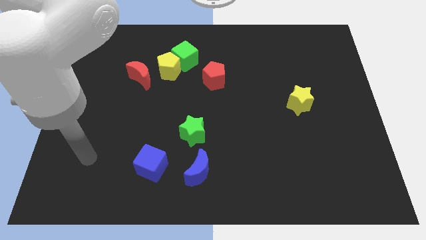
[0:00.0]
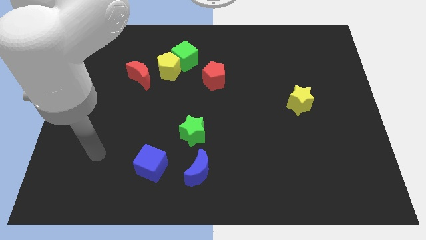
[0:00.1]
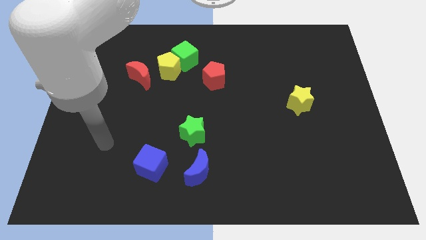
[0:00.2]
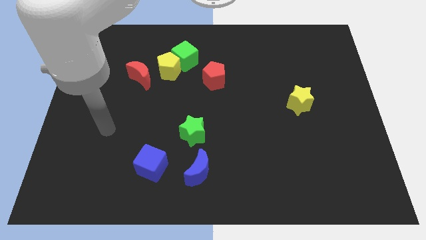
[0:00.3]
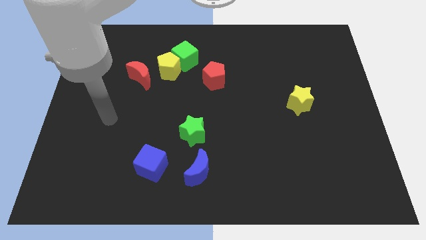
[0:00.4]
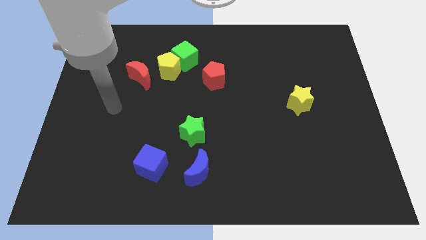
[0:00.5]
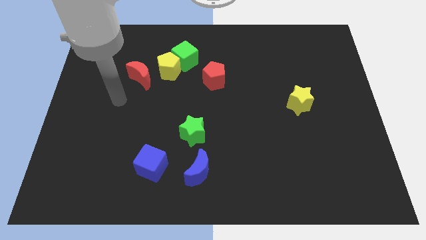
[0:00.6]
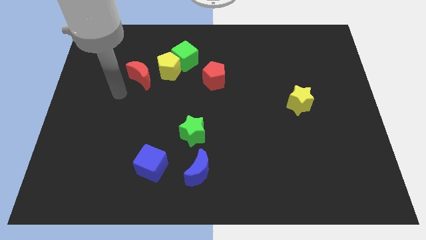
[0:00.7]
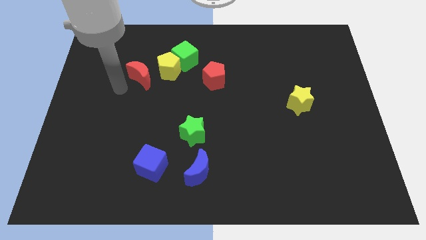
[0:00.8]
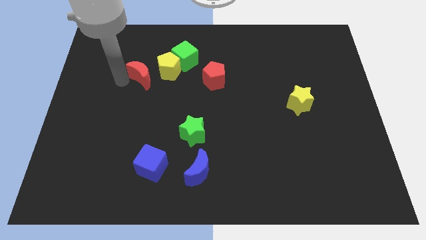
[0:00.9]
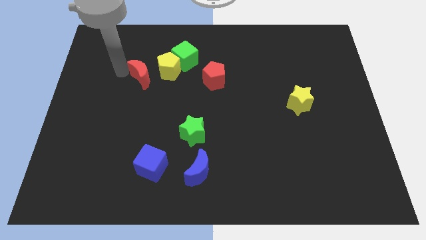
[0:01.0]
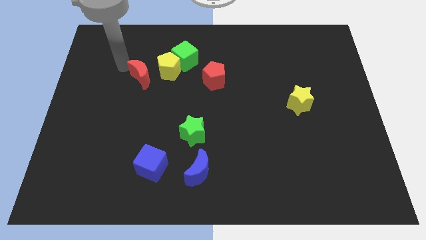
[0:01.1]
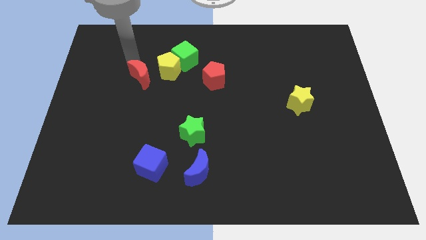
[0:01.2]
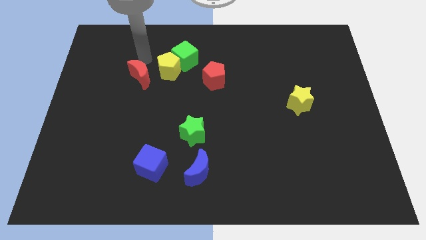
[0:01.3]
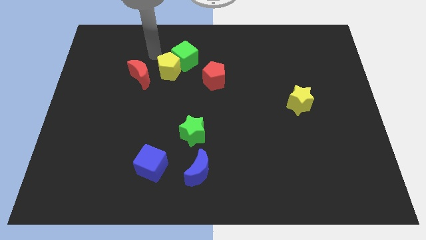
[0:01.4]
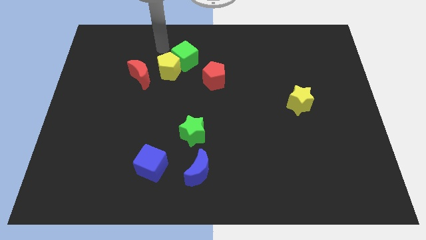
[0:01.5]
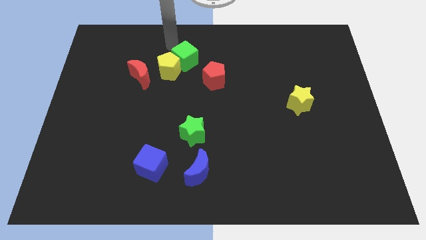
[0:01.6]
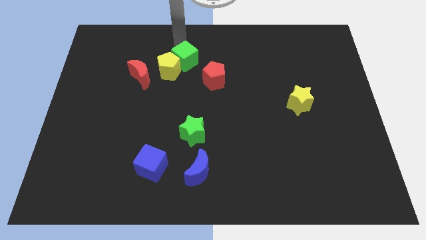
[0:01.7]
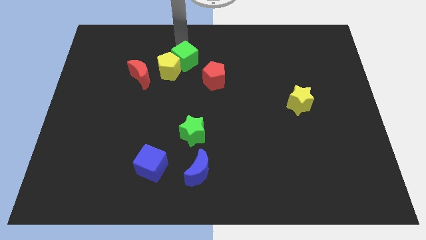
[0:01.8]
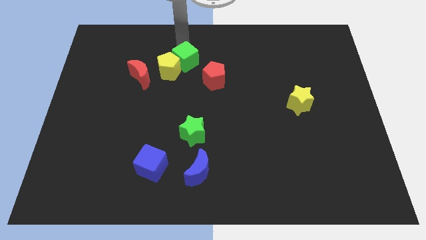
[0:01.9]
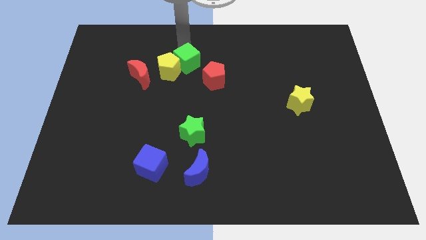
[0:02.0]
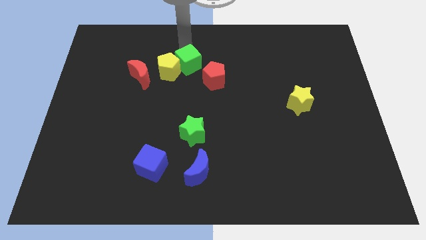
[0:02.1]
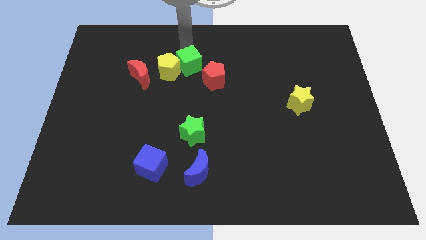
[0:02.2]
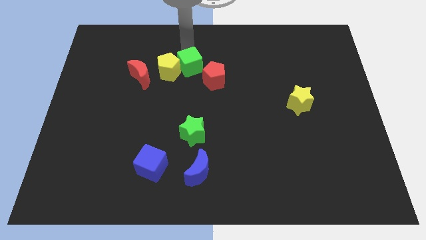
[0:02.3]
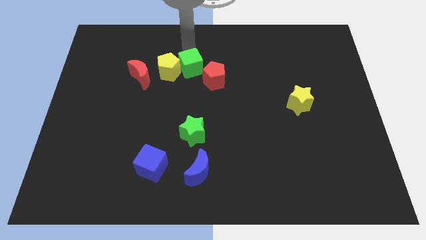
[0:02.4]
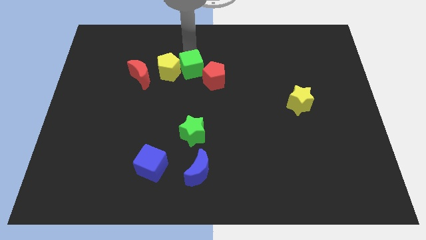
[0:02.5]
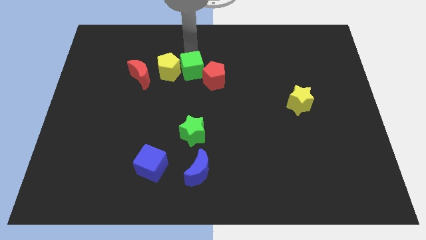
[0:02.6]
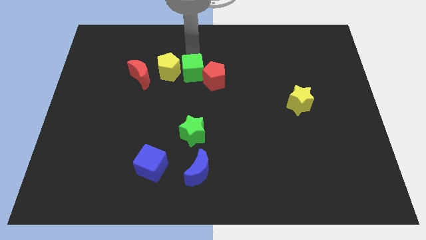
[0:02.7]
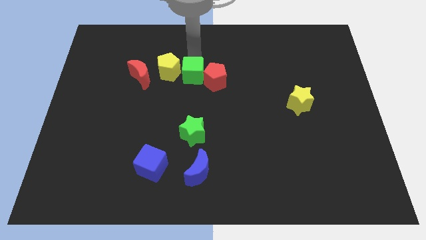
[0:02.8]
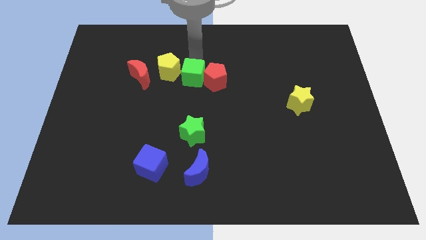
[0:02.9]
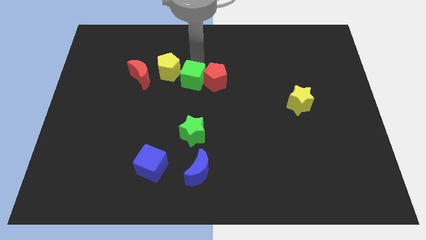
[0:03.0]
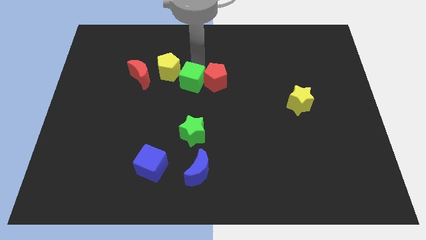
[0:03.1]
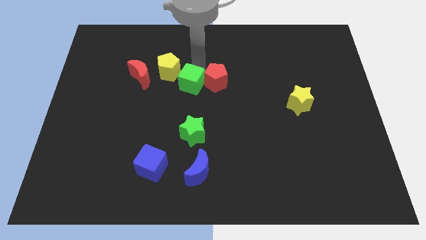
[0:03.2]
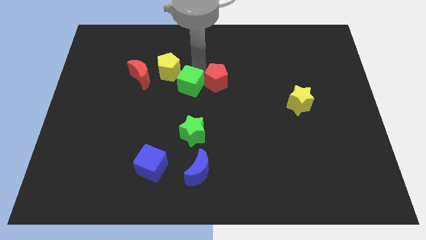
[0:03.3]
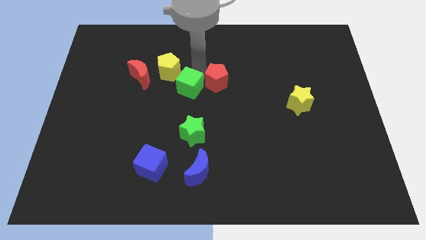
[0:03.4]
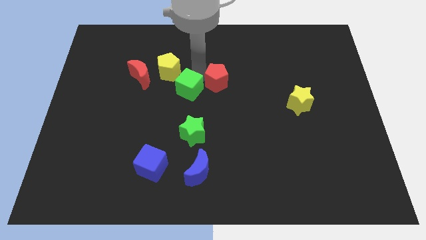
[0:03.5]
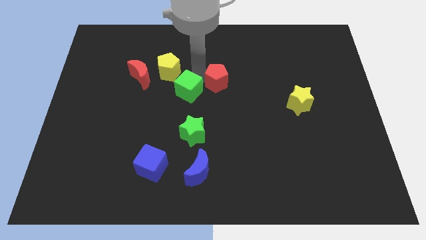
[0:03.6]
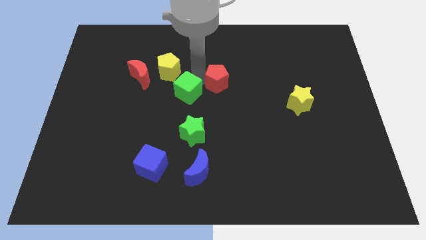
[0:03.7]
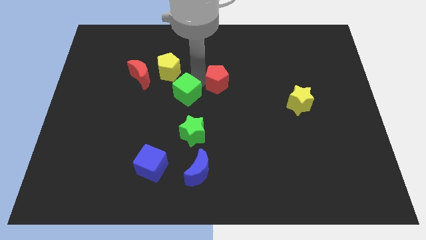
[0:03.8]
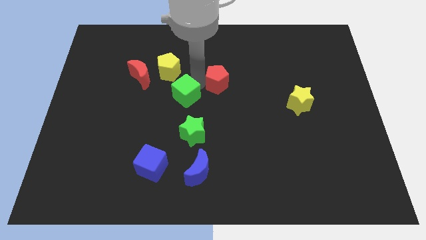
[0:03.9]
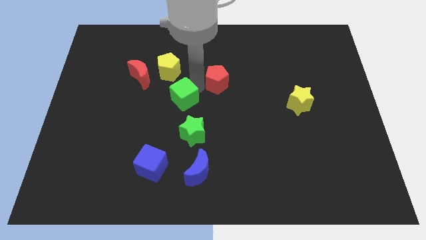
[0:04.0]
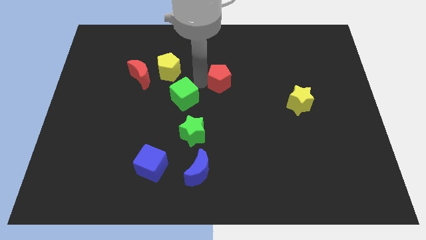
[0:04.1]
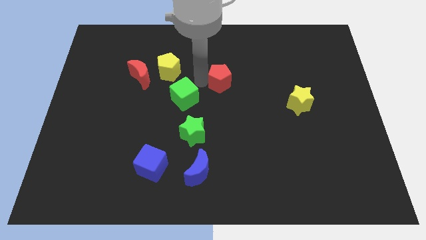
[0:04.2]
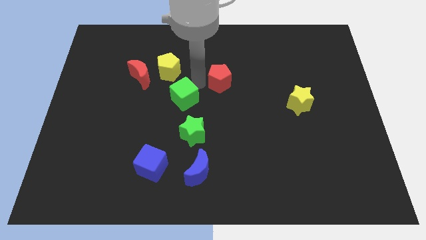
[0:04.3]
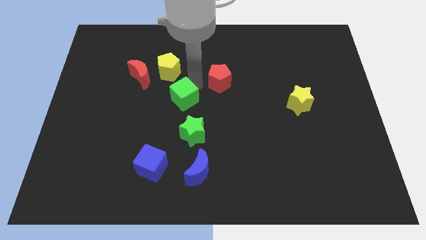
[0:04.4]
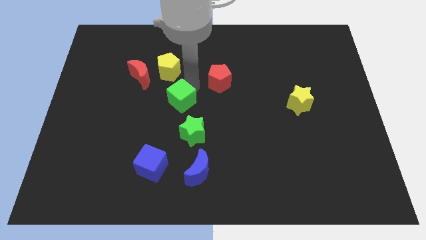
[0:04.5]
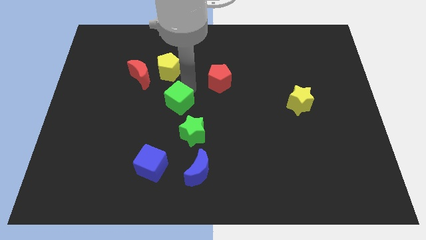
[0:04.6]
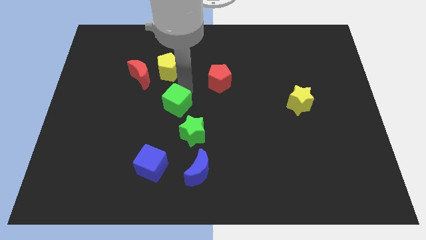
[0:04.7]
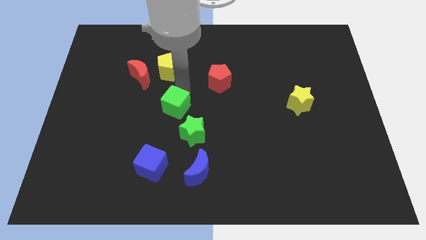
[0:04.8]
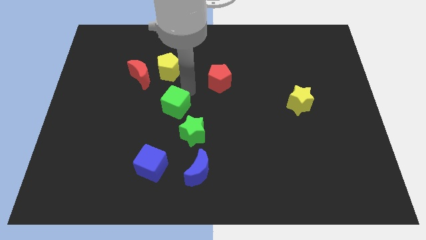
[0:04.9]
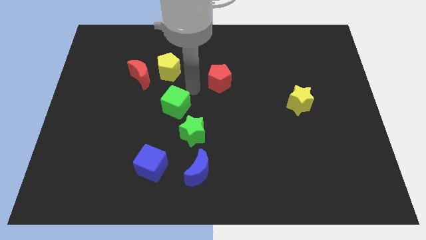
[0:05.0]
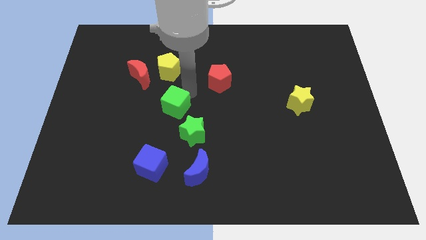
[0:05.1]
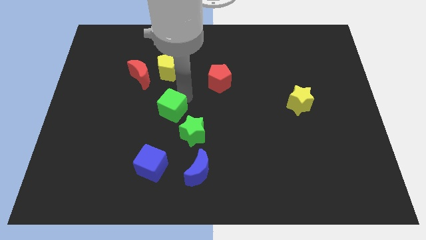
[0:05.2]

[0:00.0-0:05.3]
move the green cube to the top of the blue cube

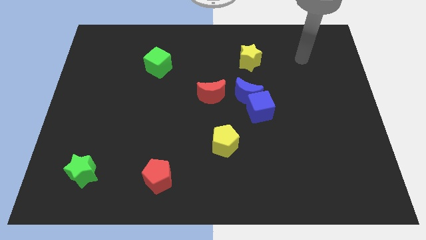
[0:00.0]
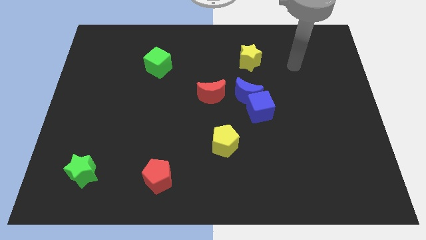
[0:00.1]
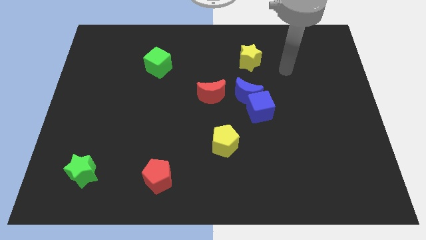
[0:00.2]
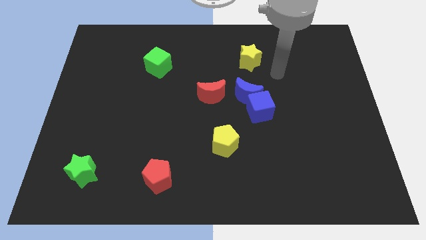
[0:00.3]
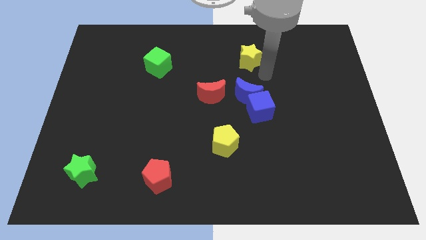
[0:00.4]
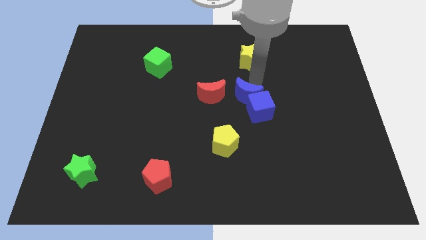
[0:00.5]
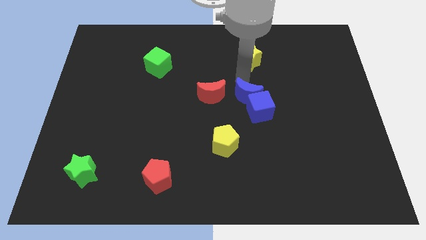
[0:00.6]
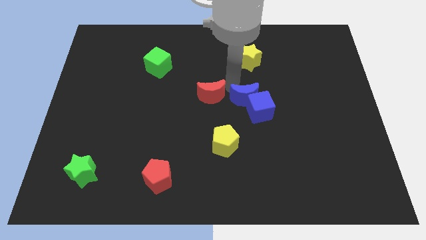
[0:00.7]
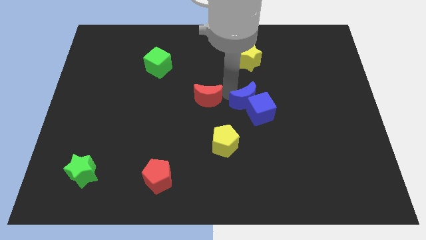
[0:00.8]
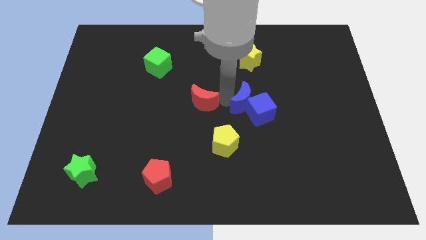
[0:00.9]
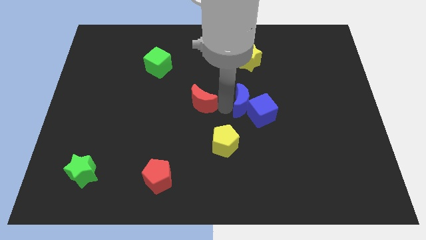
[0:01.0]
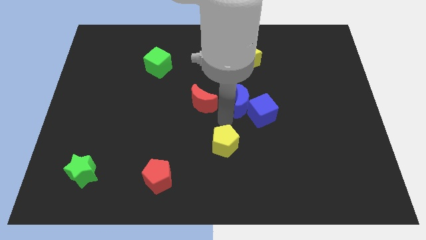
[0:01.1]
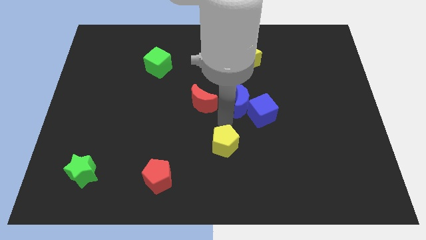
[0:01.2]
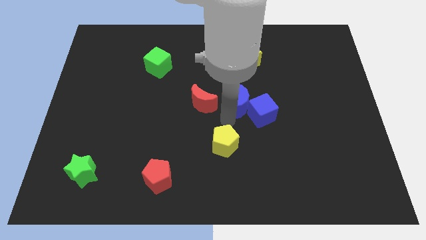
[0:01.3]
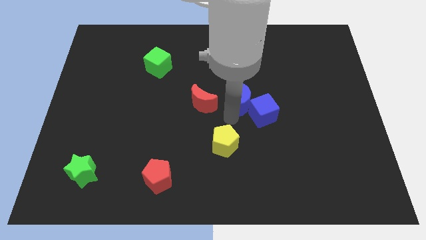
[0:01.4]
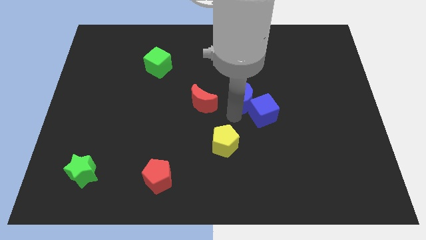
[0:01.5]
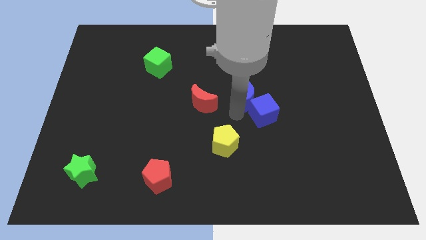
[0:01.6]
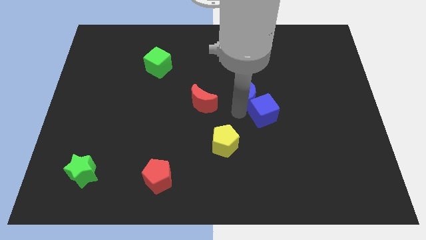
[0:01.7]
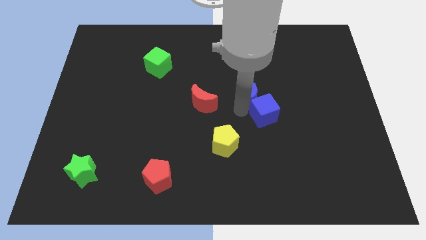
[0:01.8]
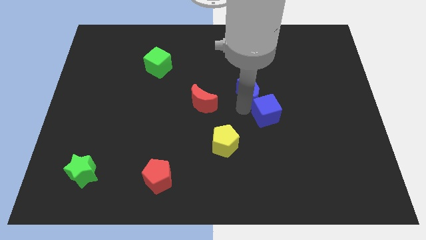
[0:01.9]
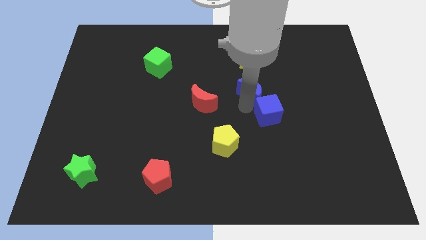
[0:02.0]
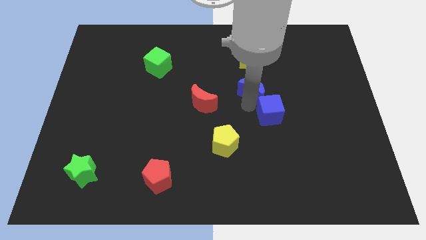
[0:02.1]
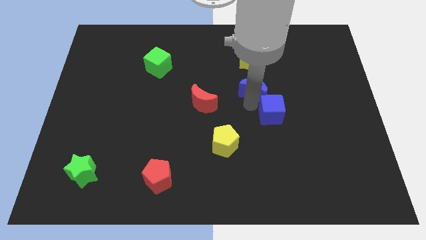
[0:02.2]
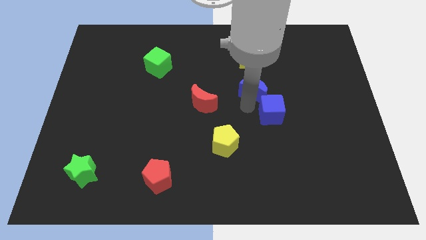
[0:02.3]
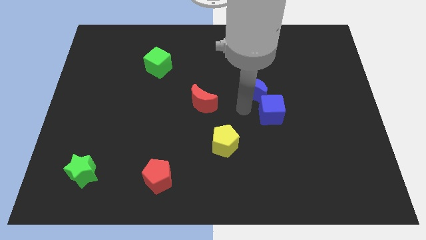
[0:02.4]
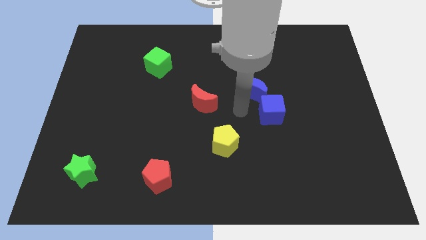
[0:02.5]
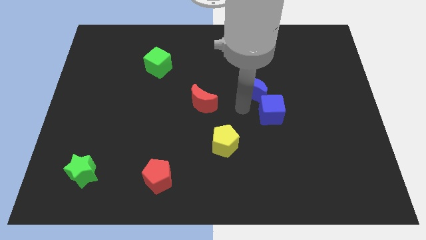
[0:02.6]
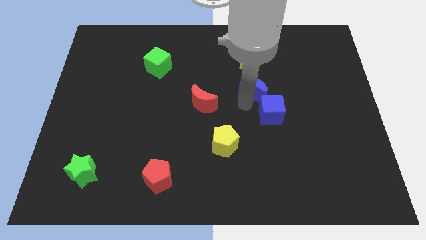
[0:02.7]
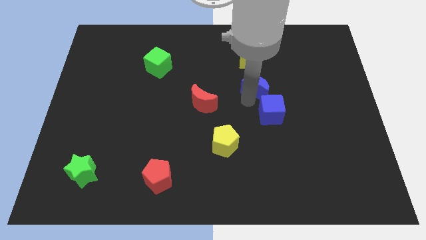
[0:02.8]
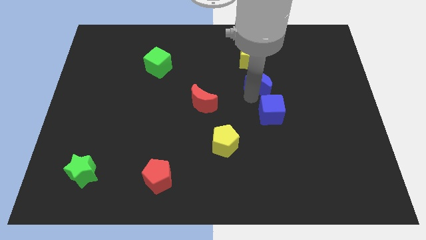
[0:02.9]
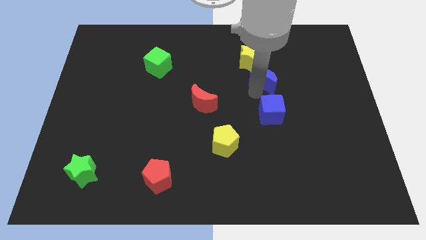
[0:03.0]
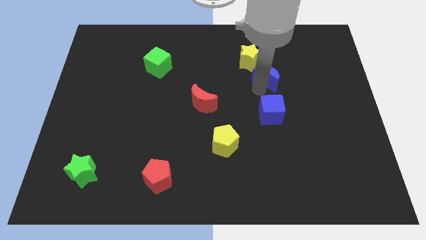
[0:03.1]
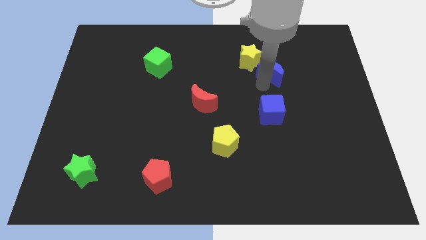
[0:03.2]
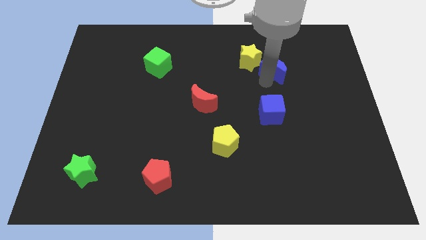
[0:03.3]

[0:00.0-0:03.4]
move the blue moon just right of the yellow star
